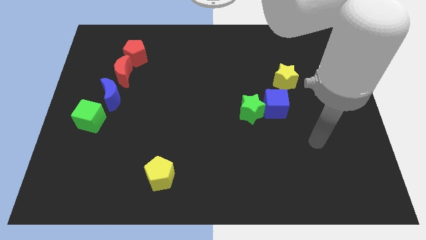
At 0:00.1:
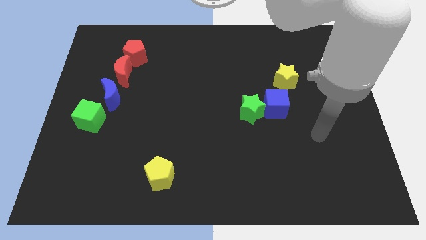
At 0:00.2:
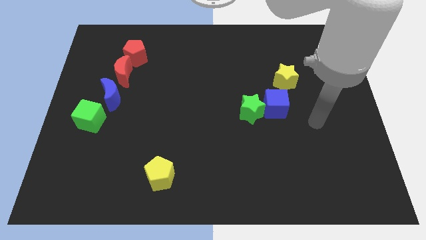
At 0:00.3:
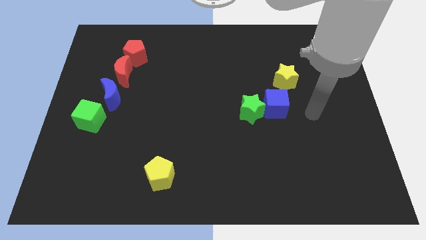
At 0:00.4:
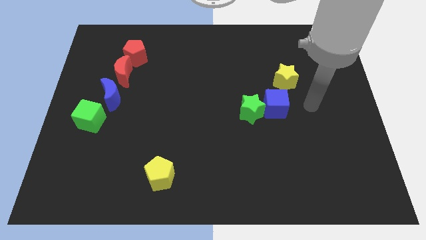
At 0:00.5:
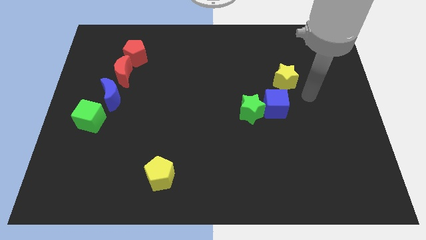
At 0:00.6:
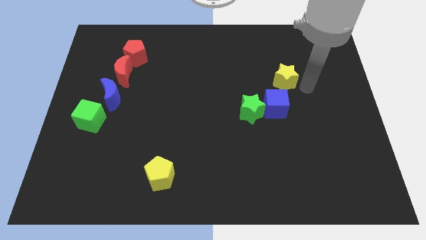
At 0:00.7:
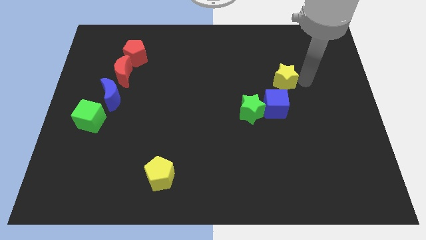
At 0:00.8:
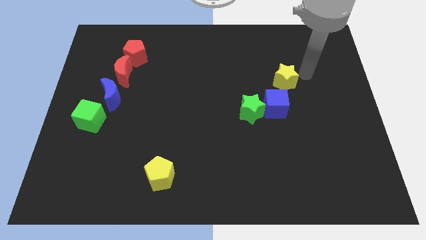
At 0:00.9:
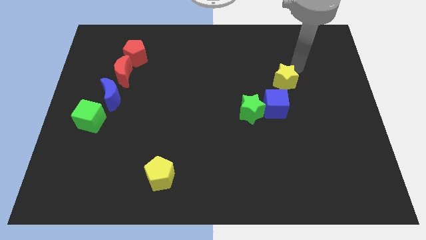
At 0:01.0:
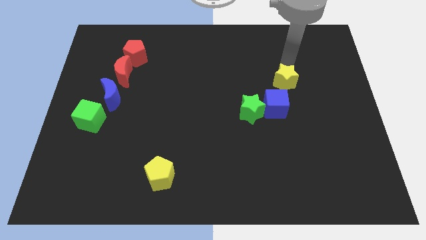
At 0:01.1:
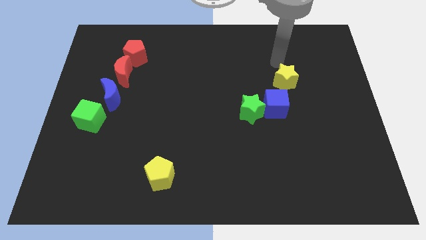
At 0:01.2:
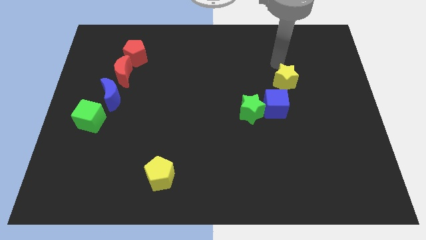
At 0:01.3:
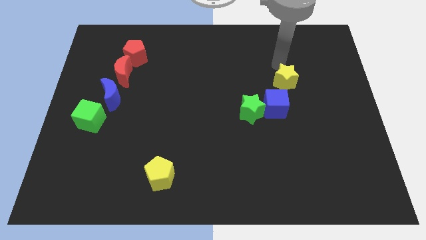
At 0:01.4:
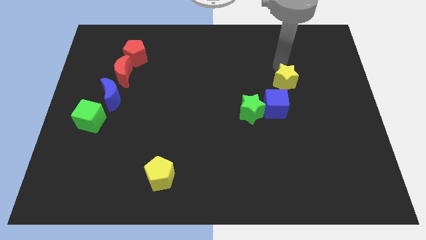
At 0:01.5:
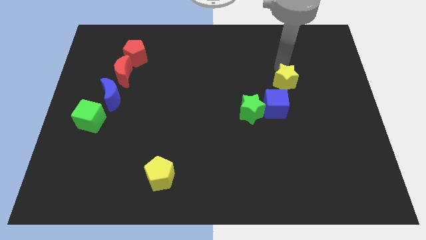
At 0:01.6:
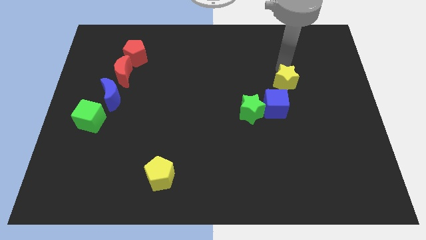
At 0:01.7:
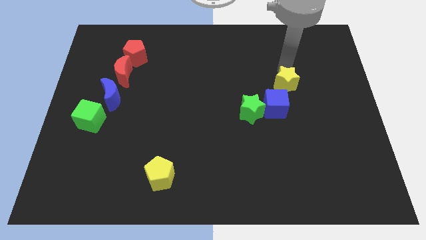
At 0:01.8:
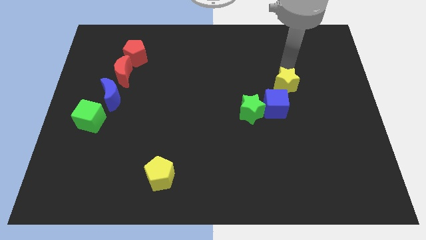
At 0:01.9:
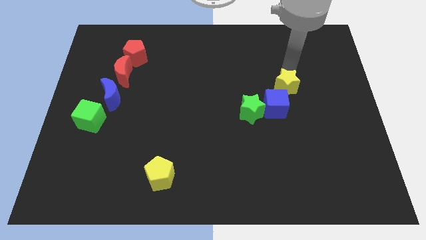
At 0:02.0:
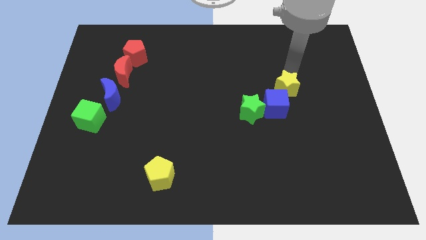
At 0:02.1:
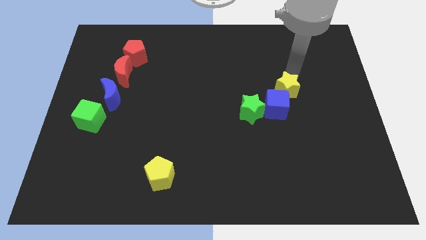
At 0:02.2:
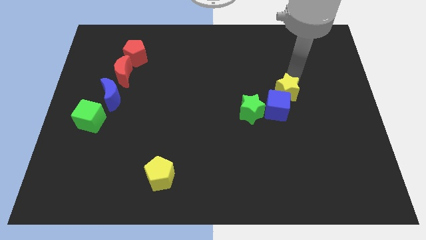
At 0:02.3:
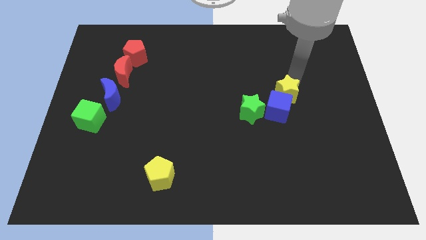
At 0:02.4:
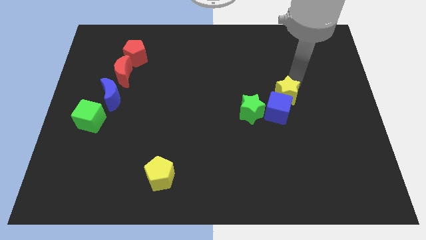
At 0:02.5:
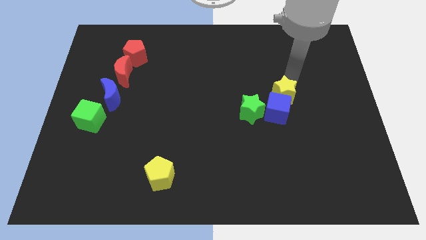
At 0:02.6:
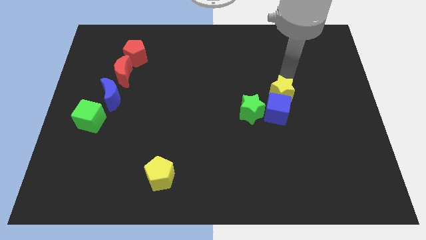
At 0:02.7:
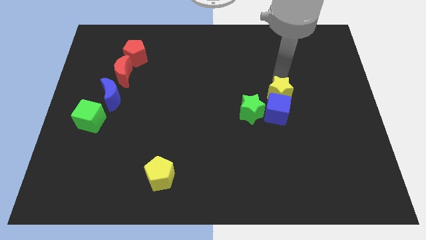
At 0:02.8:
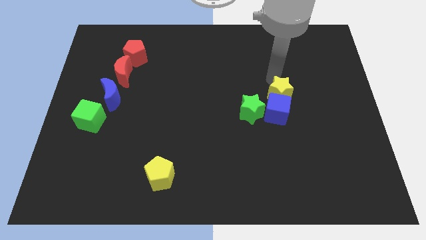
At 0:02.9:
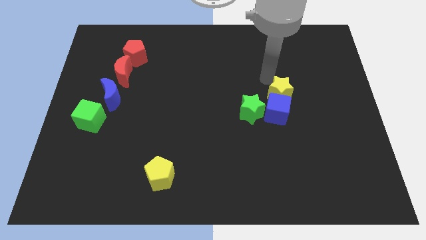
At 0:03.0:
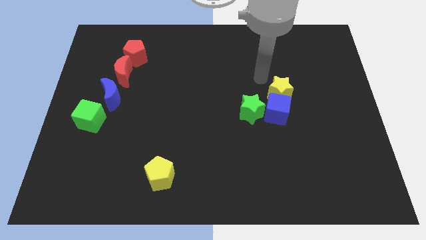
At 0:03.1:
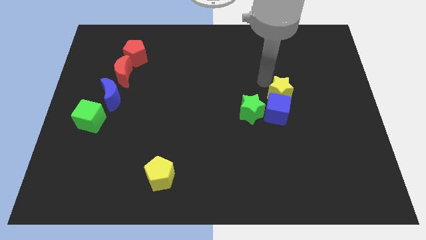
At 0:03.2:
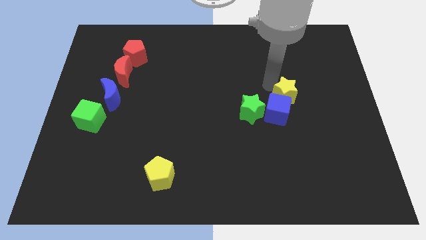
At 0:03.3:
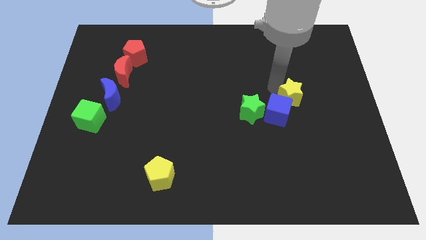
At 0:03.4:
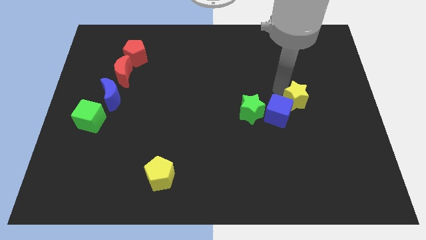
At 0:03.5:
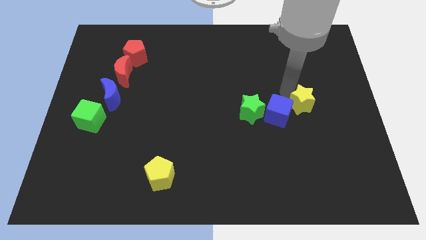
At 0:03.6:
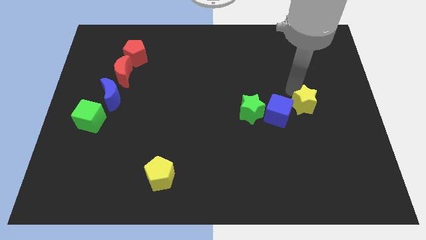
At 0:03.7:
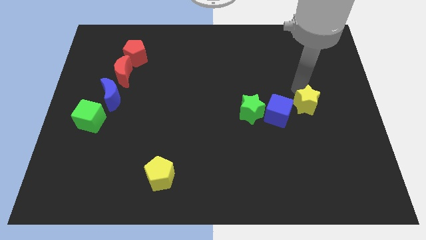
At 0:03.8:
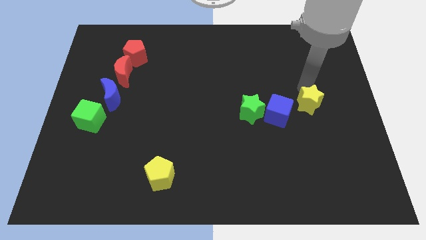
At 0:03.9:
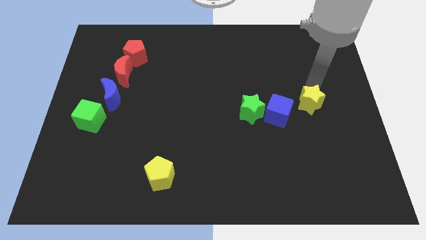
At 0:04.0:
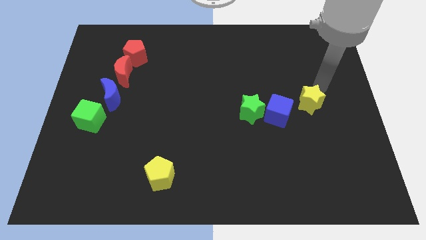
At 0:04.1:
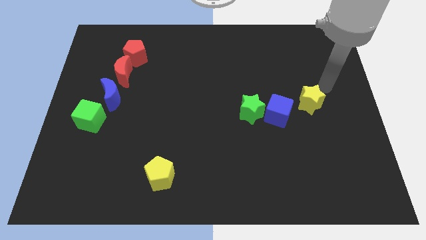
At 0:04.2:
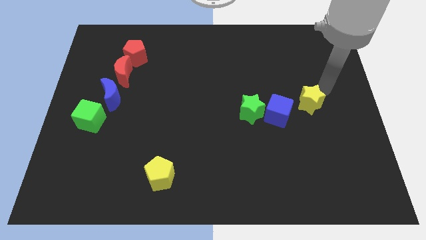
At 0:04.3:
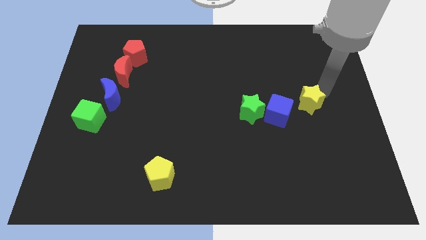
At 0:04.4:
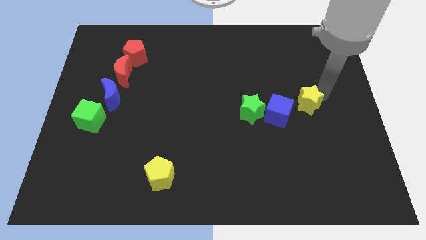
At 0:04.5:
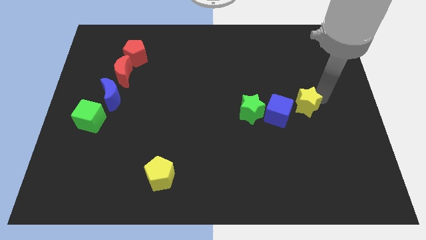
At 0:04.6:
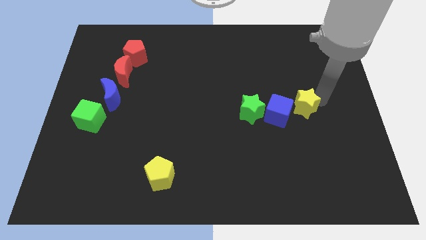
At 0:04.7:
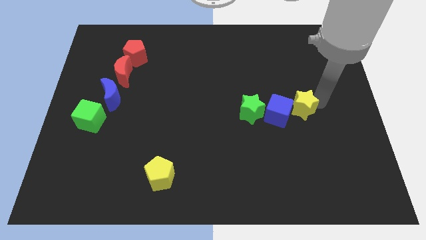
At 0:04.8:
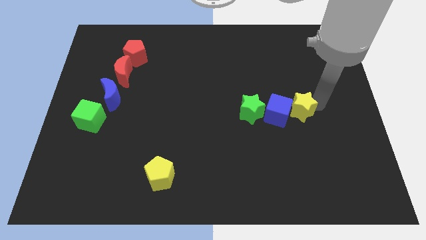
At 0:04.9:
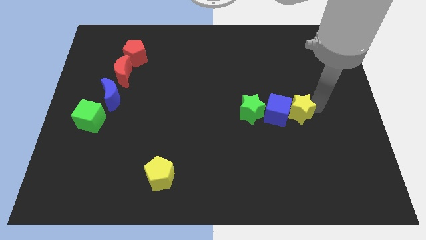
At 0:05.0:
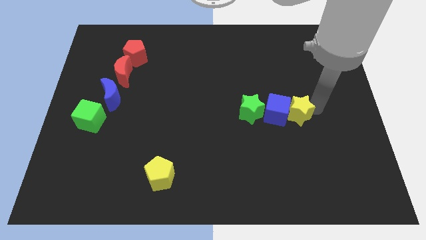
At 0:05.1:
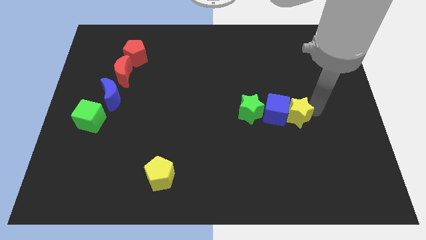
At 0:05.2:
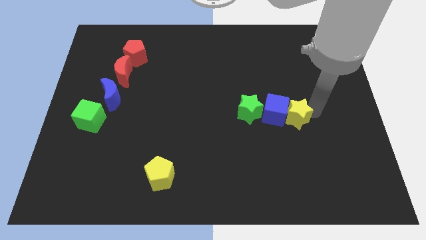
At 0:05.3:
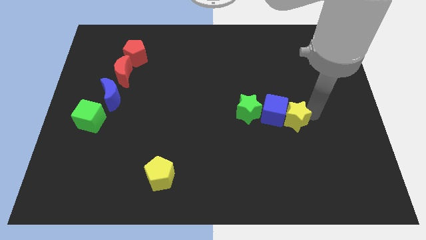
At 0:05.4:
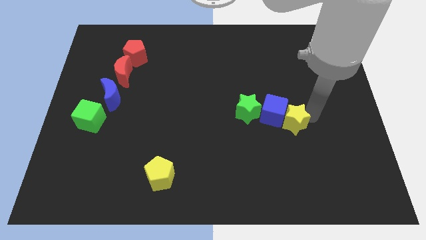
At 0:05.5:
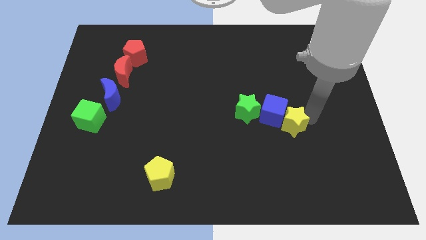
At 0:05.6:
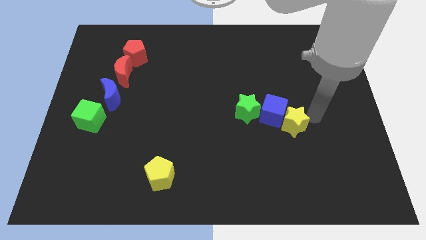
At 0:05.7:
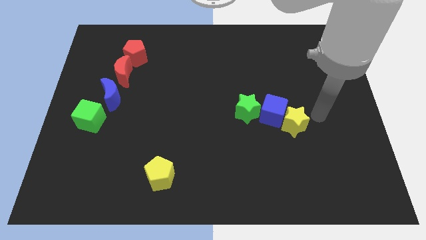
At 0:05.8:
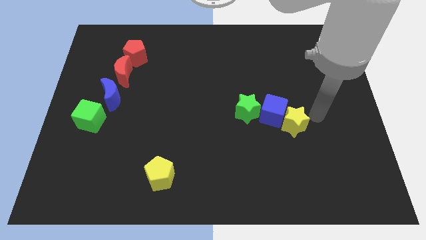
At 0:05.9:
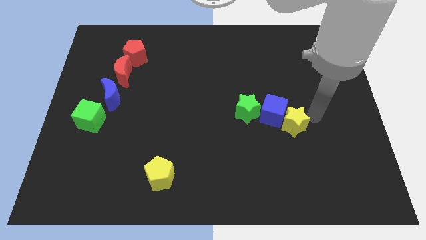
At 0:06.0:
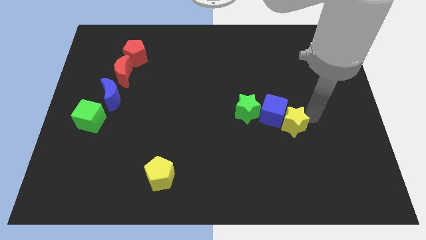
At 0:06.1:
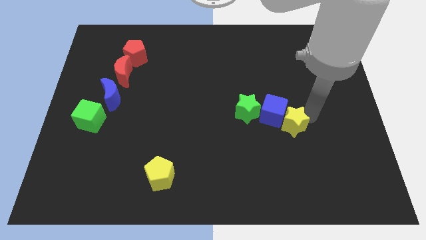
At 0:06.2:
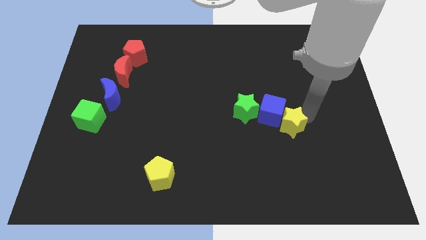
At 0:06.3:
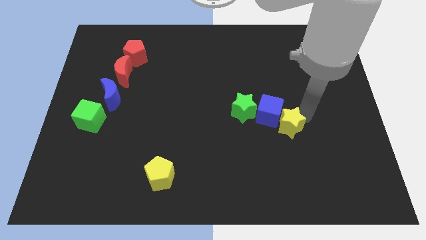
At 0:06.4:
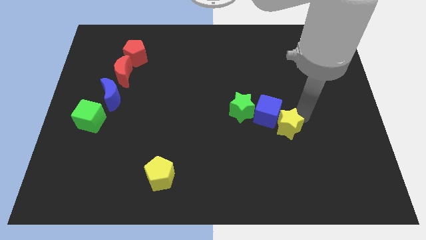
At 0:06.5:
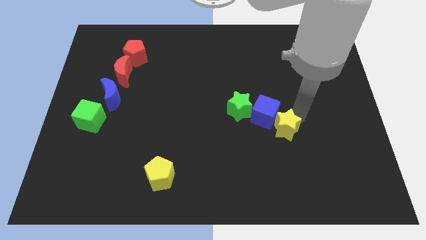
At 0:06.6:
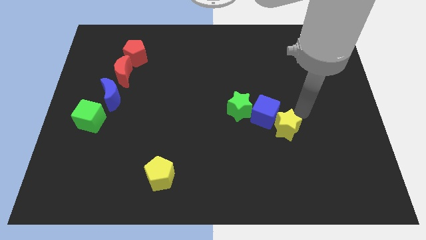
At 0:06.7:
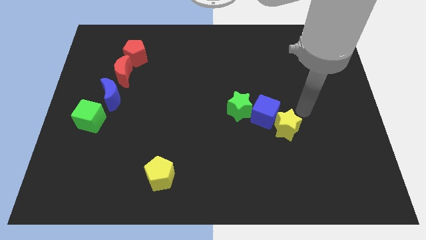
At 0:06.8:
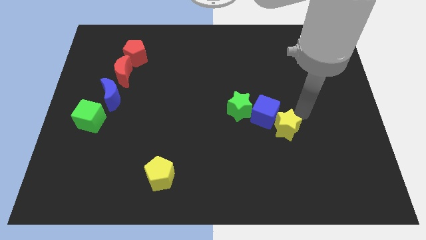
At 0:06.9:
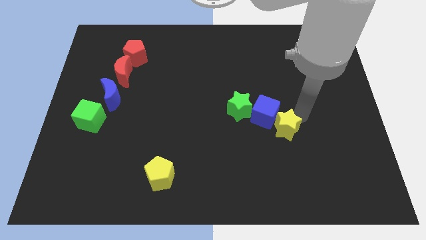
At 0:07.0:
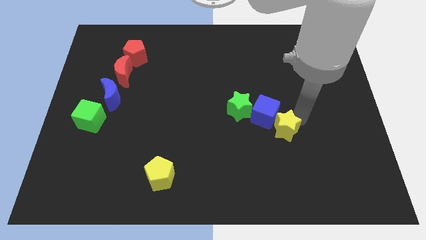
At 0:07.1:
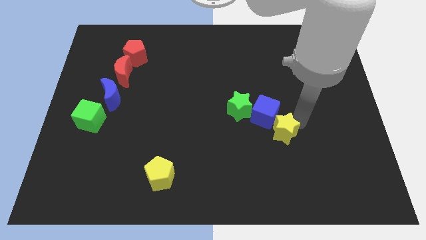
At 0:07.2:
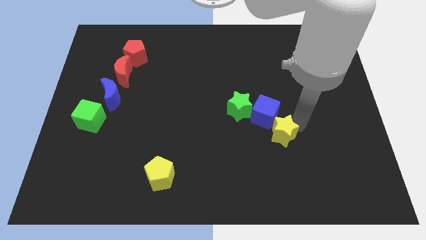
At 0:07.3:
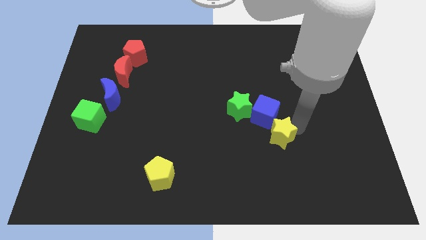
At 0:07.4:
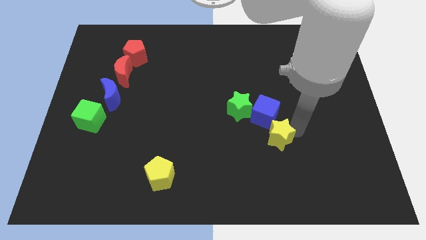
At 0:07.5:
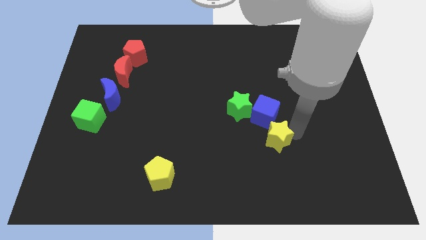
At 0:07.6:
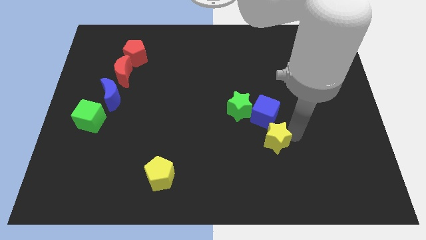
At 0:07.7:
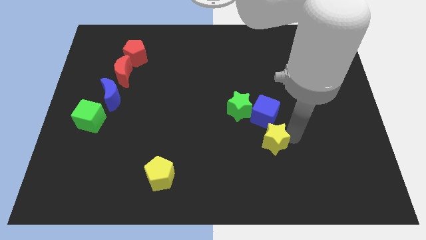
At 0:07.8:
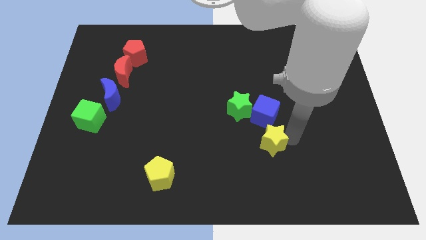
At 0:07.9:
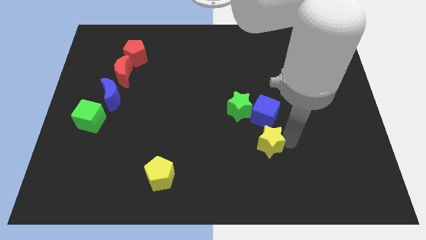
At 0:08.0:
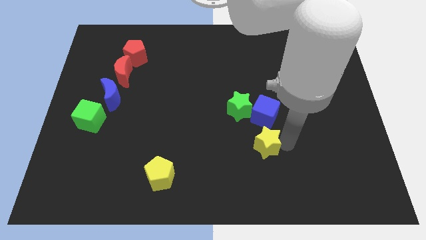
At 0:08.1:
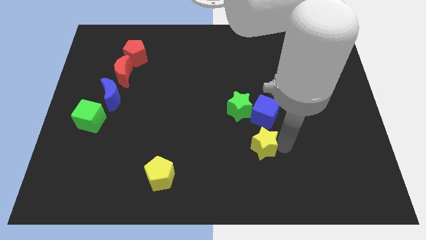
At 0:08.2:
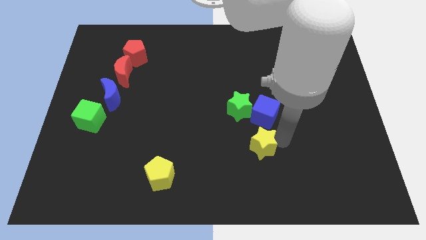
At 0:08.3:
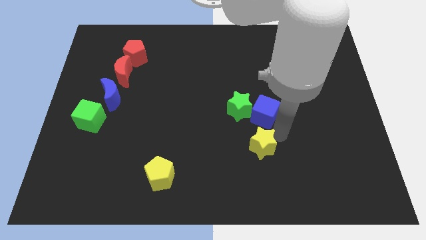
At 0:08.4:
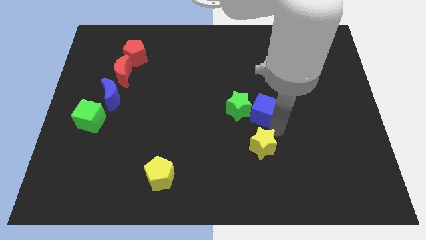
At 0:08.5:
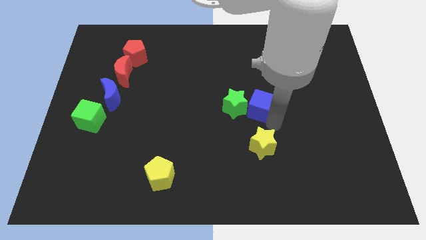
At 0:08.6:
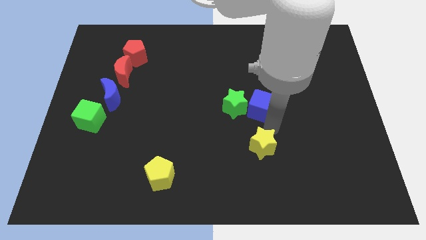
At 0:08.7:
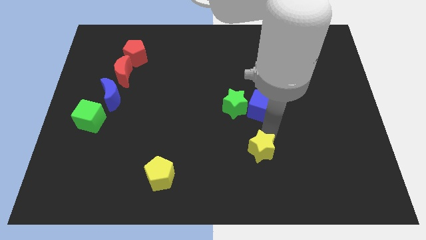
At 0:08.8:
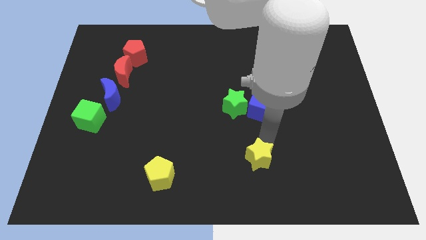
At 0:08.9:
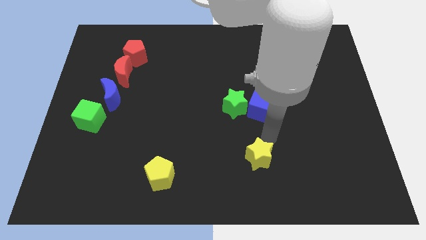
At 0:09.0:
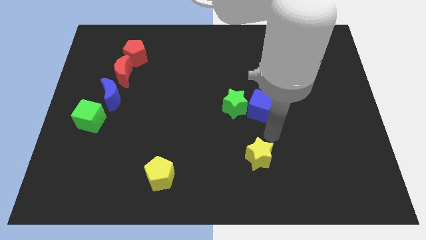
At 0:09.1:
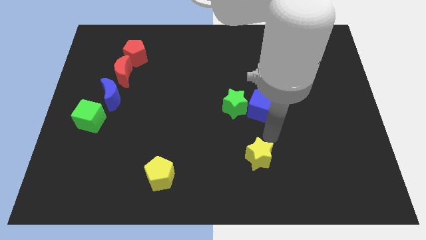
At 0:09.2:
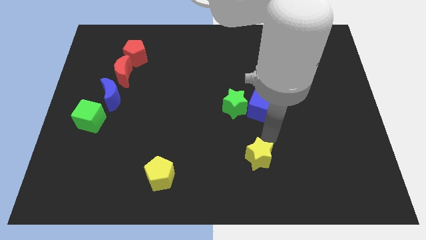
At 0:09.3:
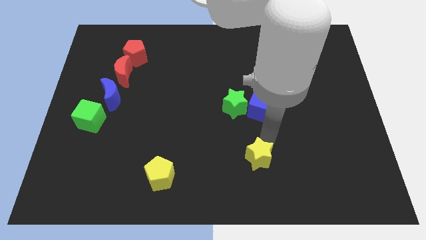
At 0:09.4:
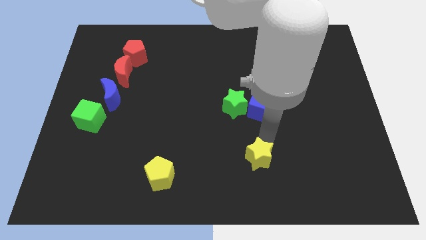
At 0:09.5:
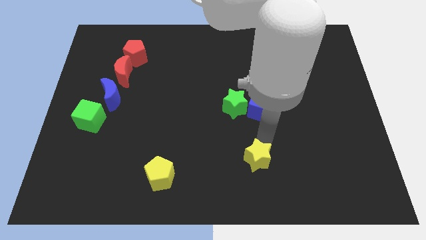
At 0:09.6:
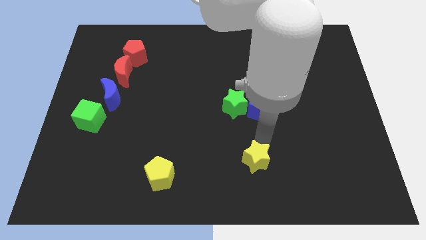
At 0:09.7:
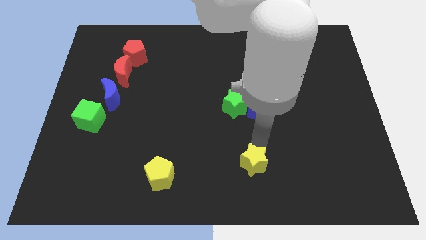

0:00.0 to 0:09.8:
put the yellow star to the bottom side
